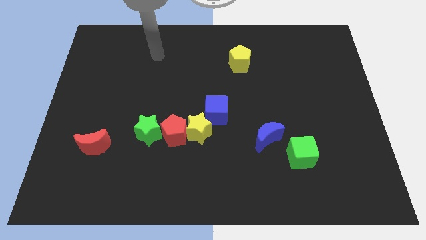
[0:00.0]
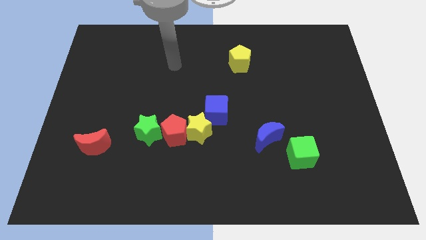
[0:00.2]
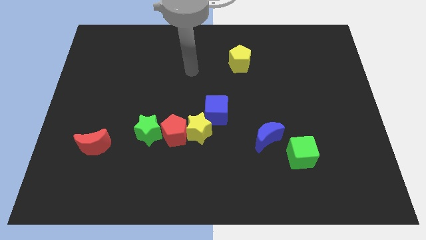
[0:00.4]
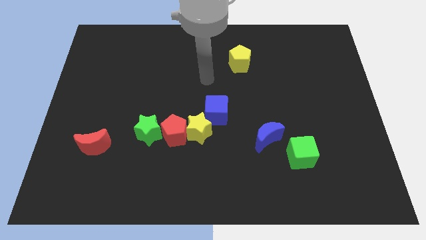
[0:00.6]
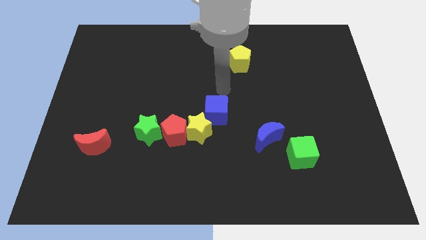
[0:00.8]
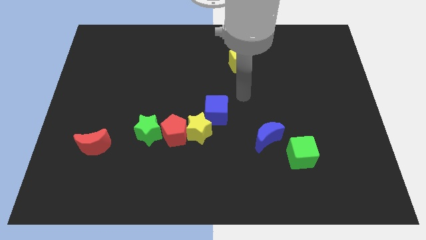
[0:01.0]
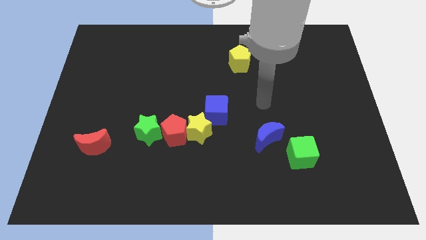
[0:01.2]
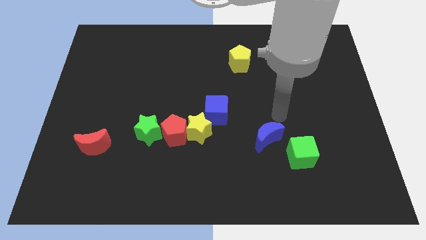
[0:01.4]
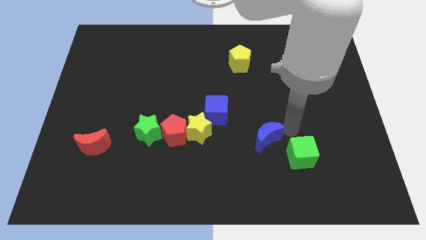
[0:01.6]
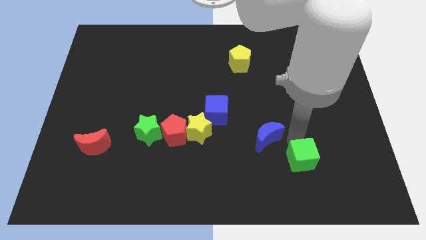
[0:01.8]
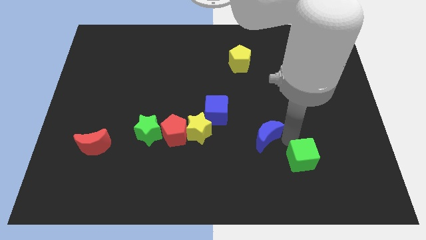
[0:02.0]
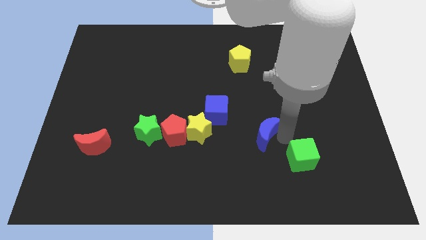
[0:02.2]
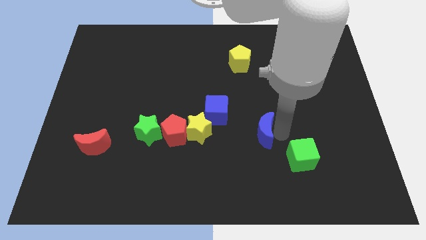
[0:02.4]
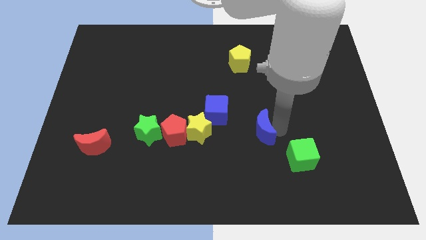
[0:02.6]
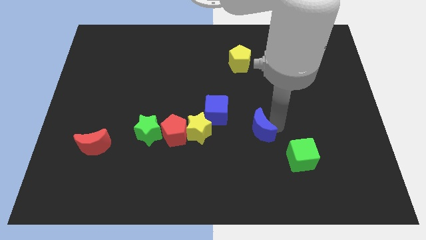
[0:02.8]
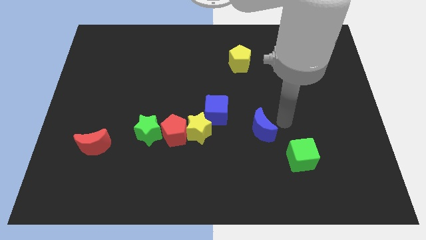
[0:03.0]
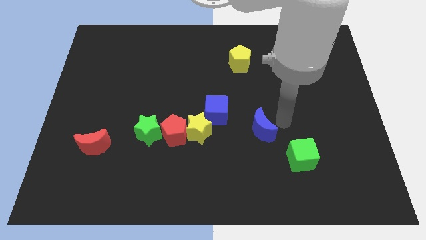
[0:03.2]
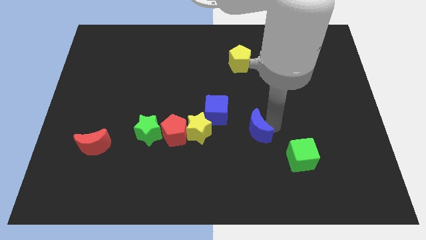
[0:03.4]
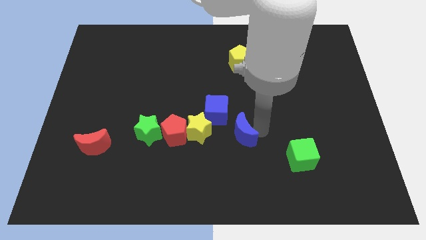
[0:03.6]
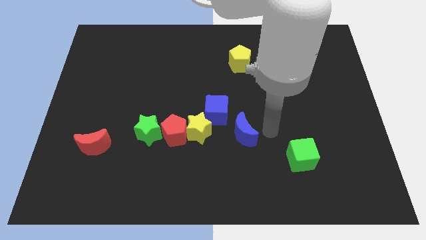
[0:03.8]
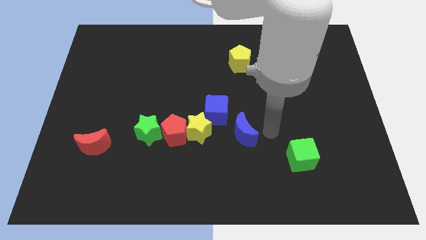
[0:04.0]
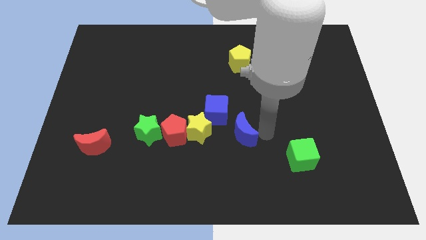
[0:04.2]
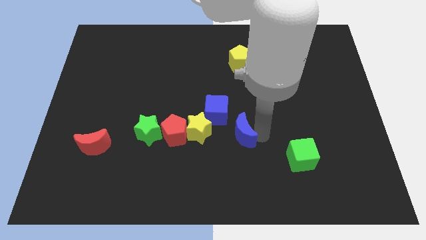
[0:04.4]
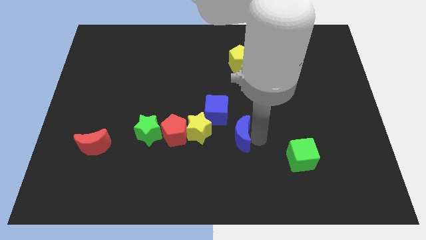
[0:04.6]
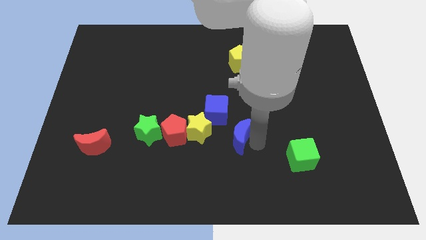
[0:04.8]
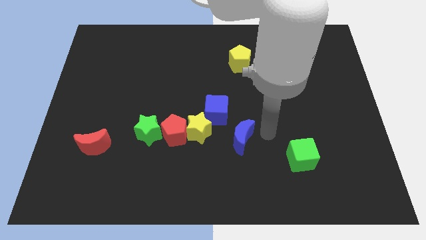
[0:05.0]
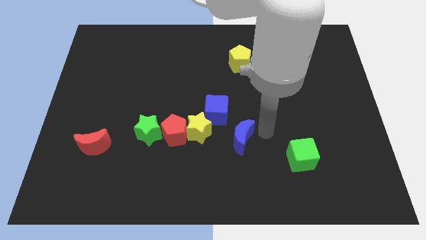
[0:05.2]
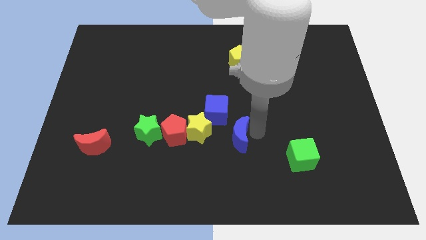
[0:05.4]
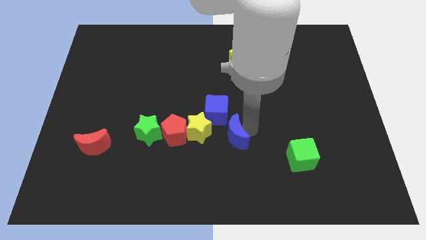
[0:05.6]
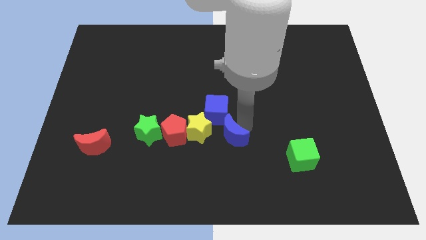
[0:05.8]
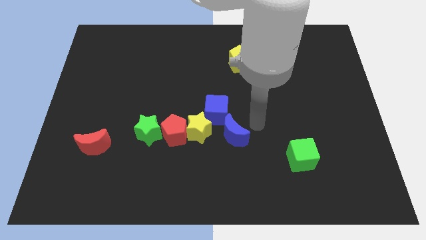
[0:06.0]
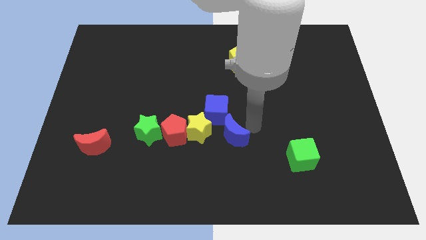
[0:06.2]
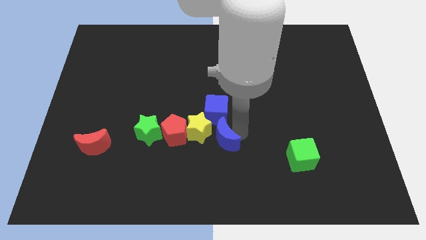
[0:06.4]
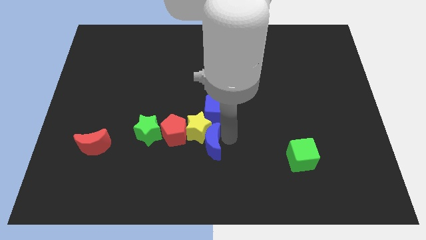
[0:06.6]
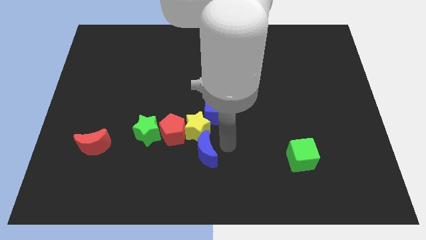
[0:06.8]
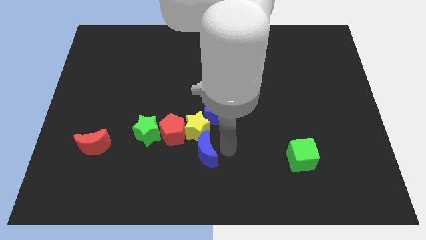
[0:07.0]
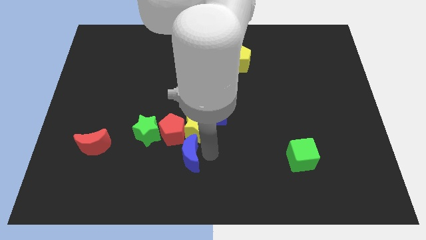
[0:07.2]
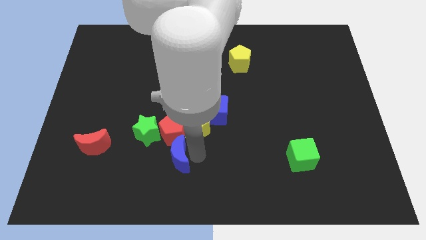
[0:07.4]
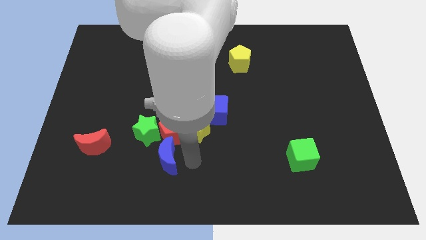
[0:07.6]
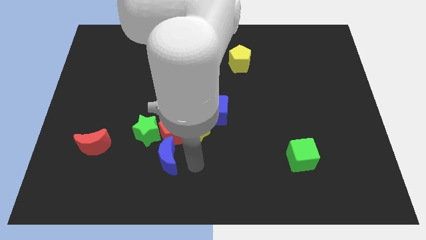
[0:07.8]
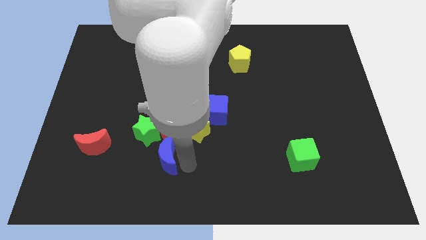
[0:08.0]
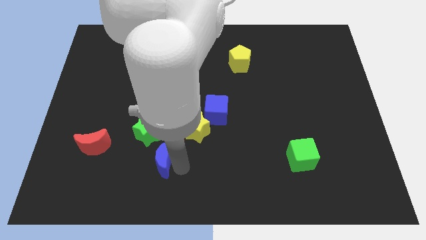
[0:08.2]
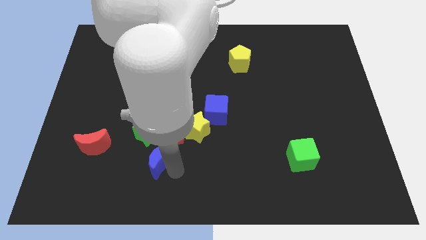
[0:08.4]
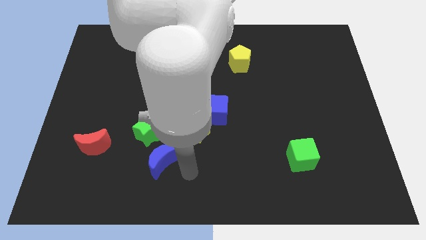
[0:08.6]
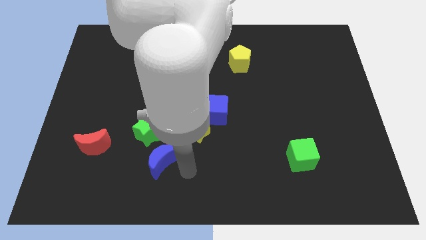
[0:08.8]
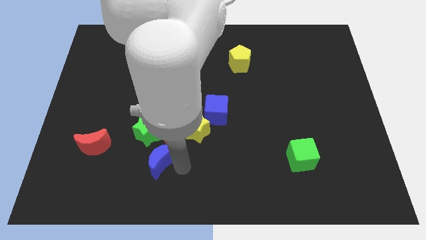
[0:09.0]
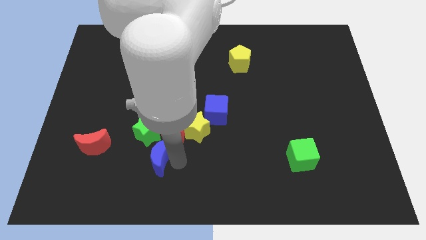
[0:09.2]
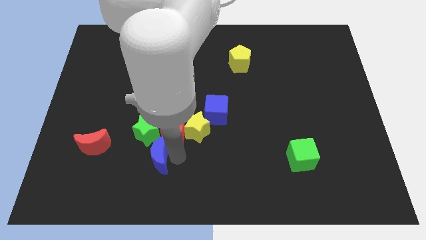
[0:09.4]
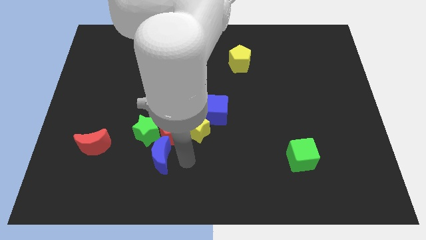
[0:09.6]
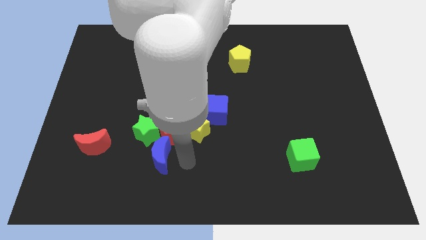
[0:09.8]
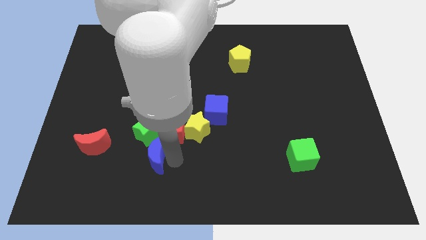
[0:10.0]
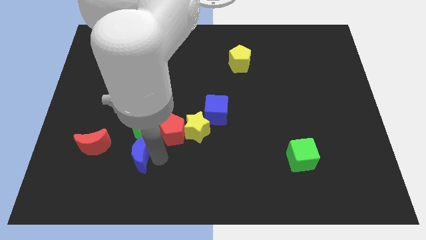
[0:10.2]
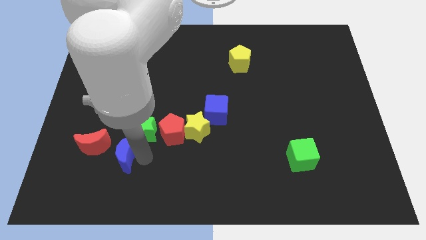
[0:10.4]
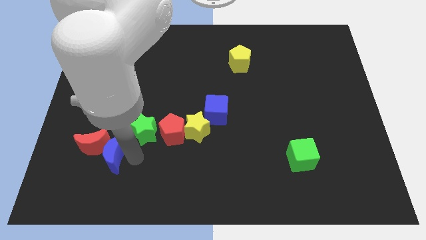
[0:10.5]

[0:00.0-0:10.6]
put the blue moon close to the red moon

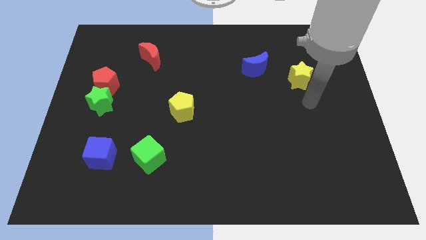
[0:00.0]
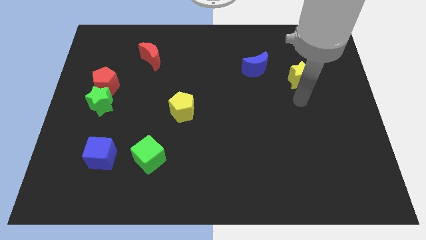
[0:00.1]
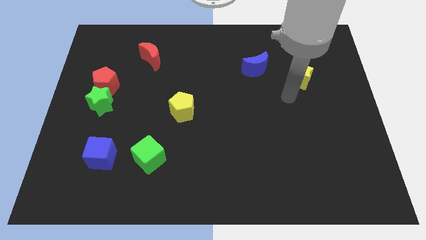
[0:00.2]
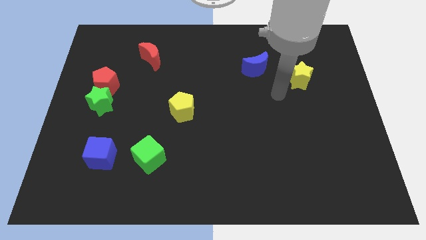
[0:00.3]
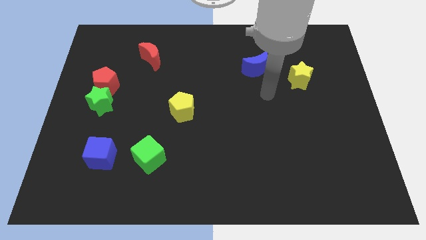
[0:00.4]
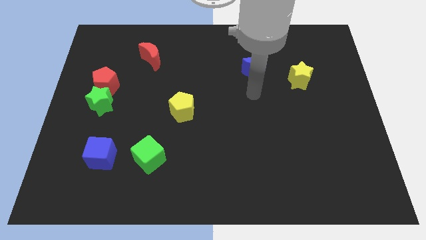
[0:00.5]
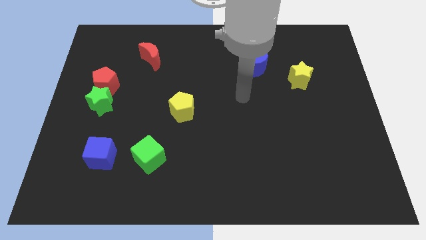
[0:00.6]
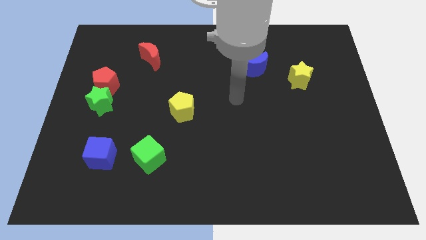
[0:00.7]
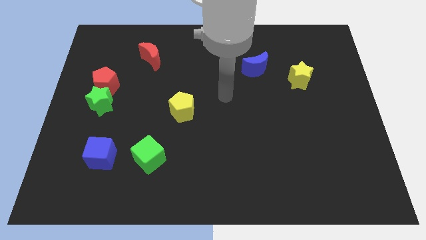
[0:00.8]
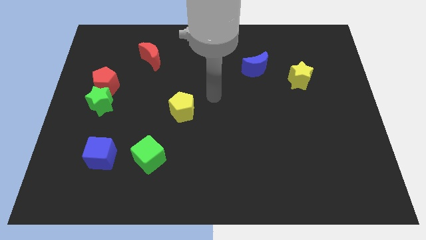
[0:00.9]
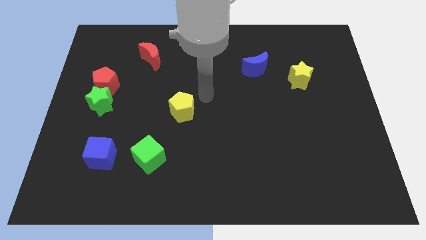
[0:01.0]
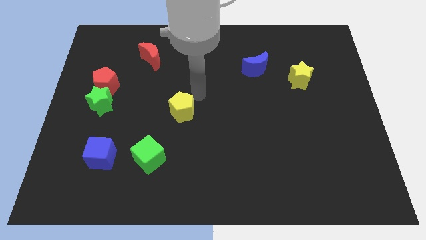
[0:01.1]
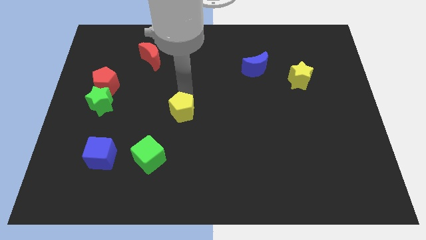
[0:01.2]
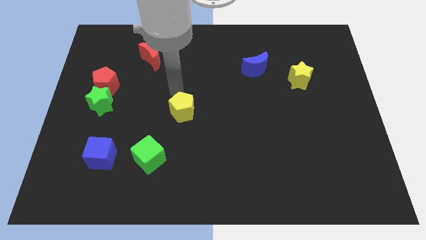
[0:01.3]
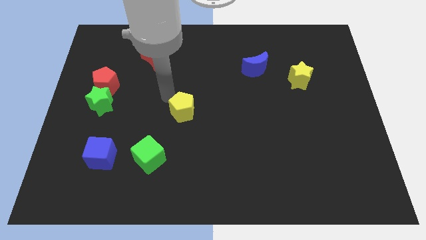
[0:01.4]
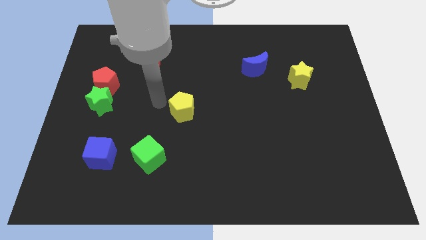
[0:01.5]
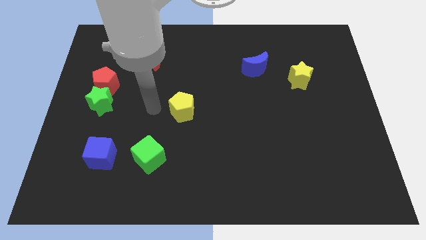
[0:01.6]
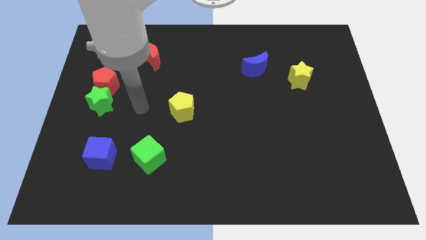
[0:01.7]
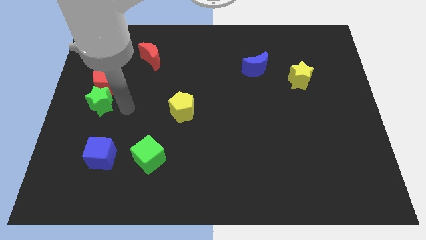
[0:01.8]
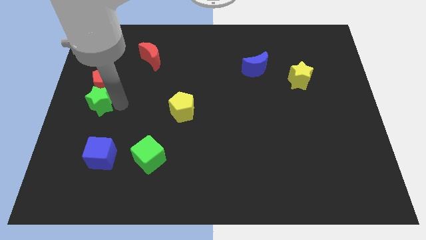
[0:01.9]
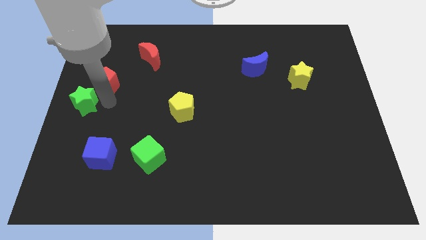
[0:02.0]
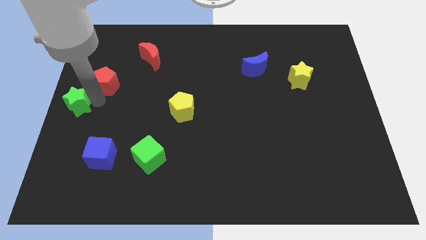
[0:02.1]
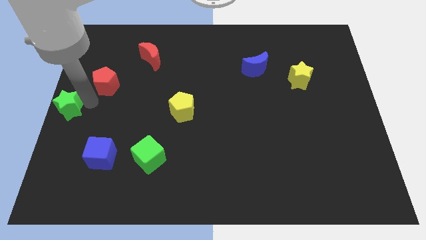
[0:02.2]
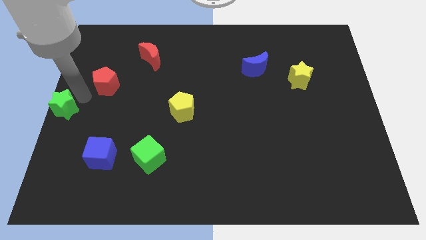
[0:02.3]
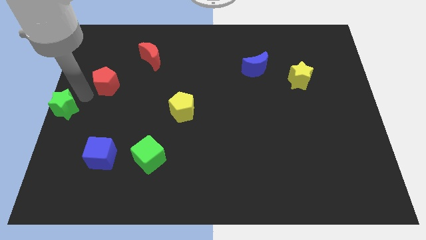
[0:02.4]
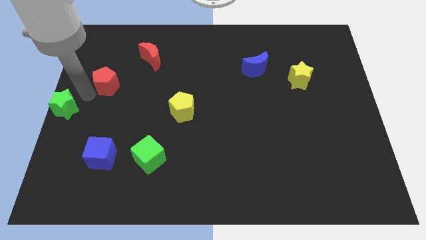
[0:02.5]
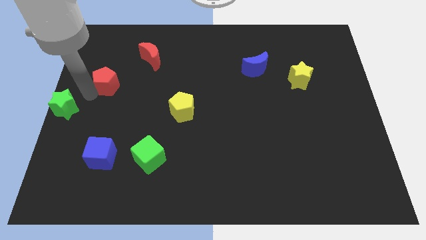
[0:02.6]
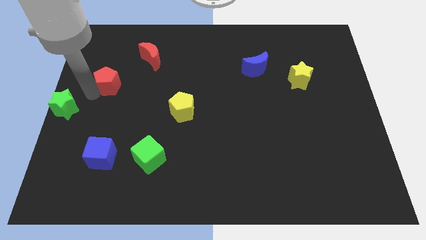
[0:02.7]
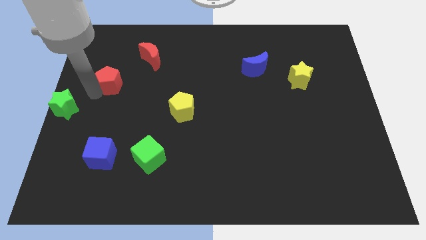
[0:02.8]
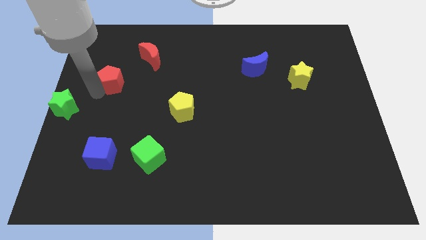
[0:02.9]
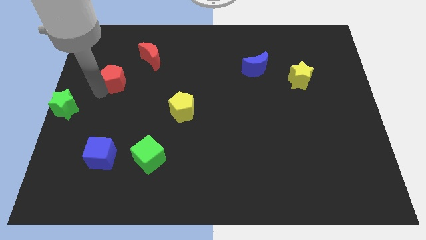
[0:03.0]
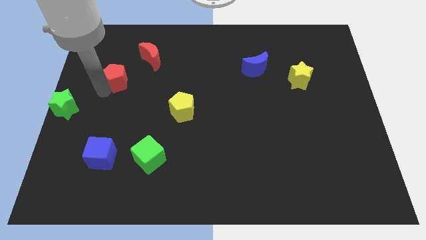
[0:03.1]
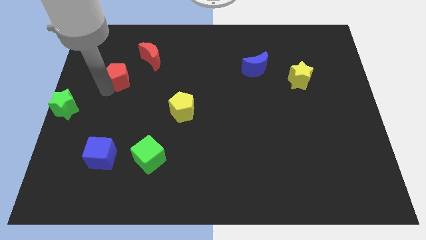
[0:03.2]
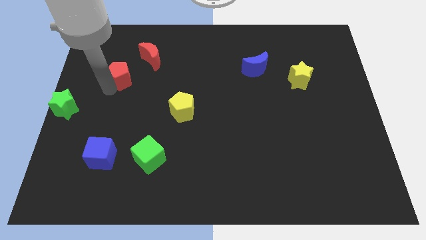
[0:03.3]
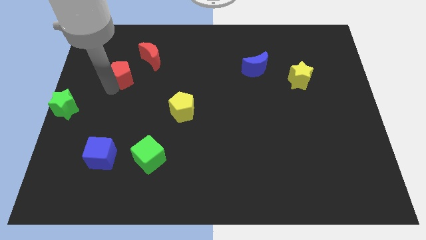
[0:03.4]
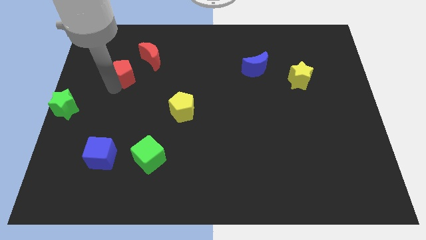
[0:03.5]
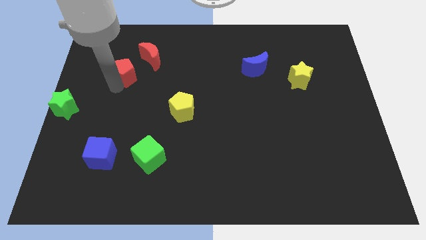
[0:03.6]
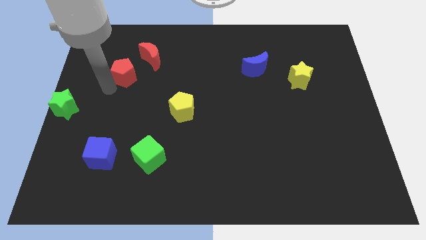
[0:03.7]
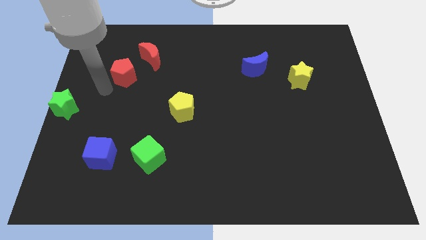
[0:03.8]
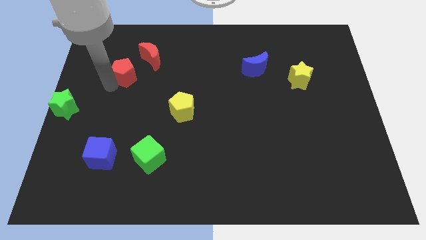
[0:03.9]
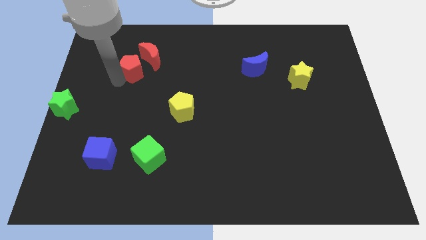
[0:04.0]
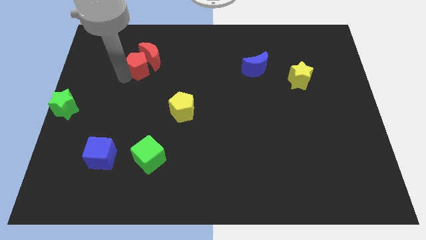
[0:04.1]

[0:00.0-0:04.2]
push the red pentagon next to the red moon
